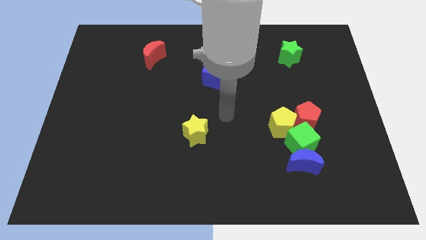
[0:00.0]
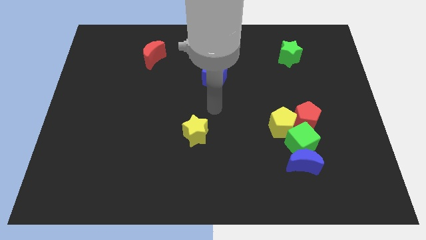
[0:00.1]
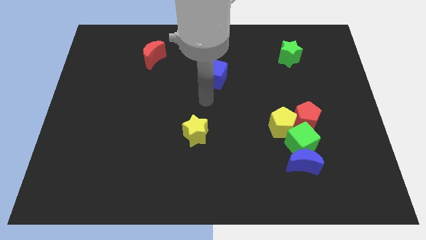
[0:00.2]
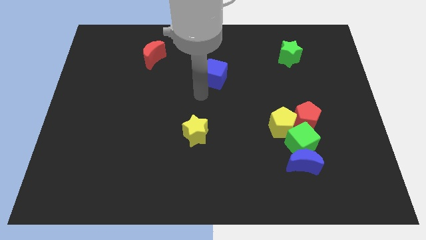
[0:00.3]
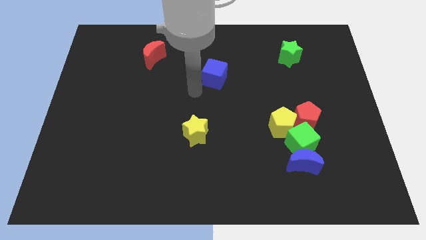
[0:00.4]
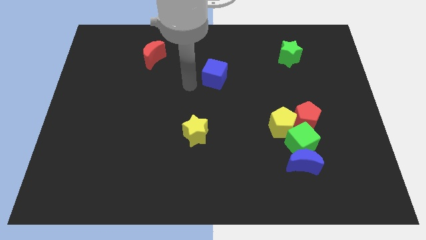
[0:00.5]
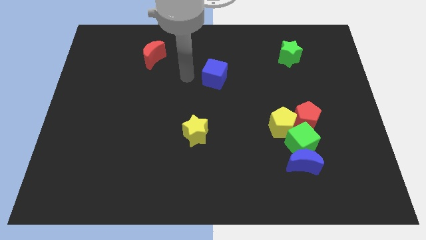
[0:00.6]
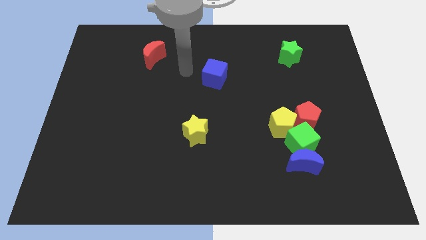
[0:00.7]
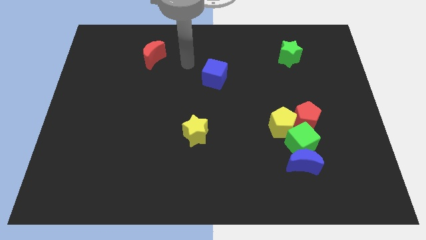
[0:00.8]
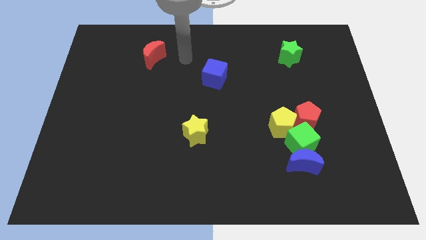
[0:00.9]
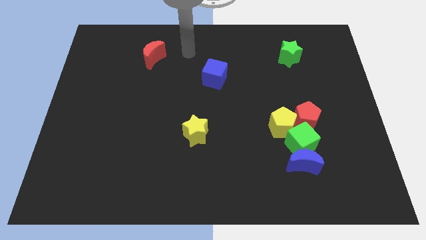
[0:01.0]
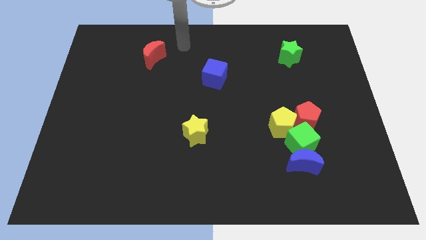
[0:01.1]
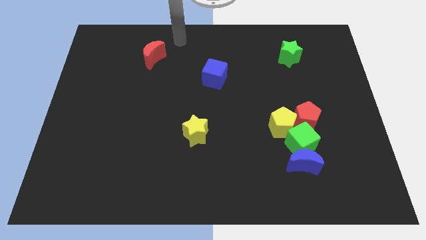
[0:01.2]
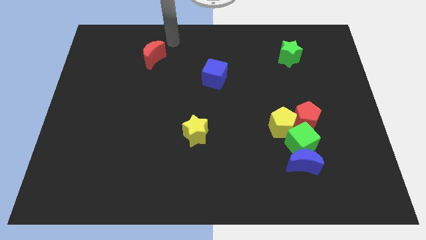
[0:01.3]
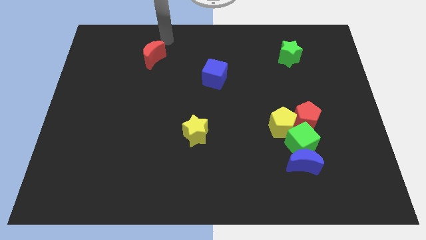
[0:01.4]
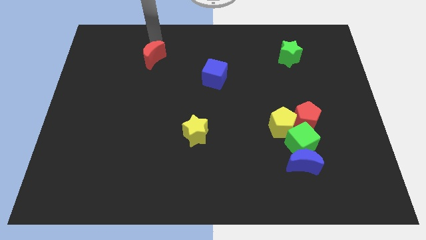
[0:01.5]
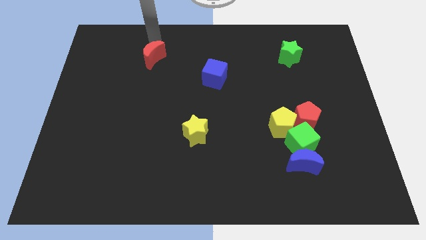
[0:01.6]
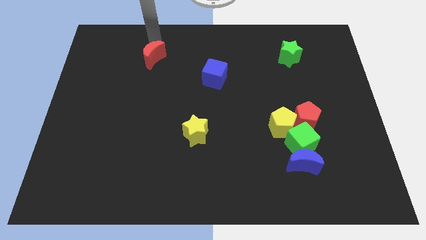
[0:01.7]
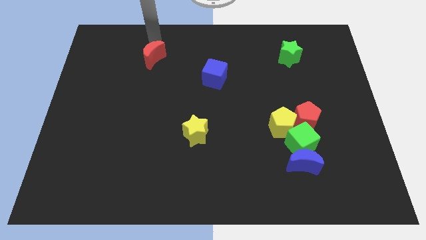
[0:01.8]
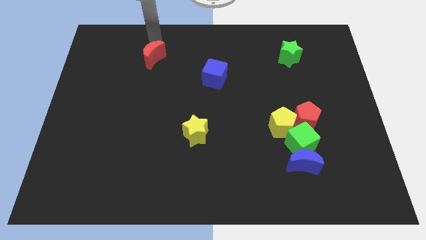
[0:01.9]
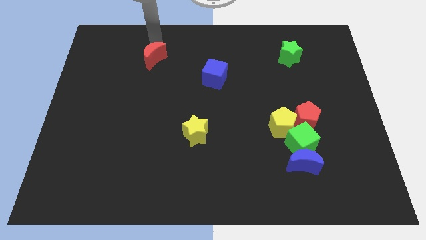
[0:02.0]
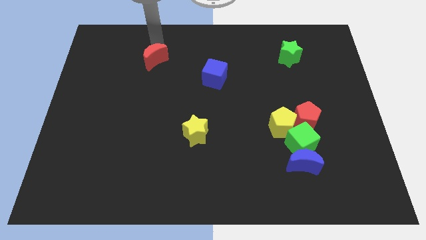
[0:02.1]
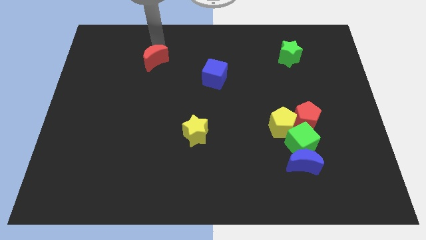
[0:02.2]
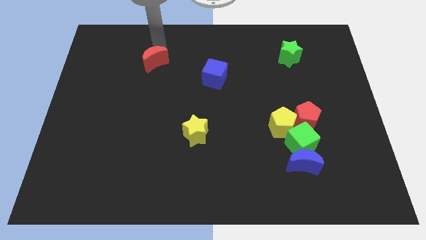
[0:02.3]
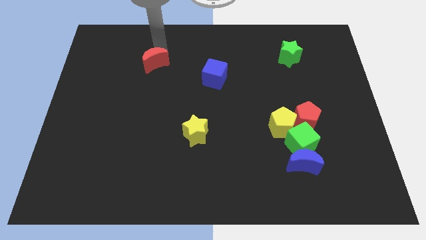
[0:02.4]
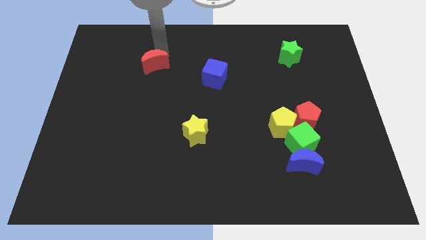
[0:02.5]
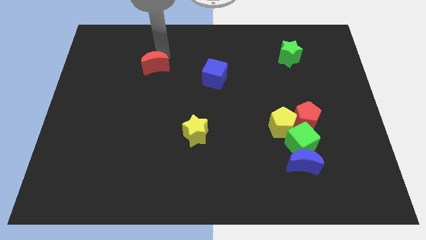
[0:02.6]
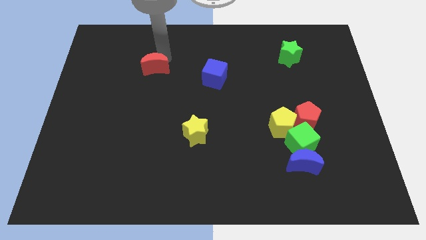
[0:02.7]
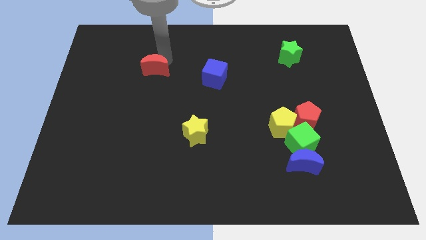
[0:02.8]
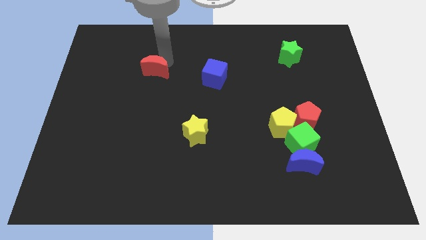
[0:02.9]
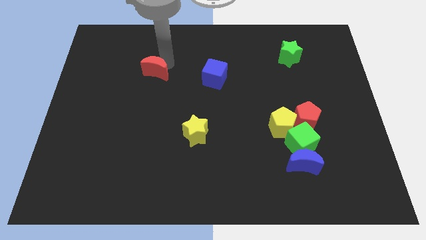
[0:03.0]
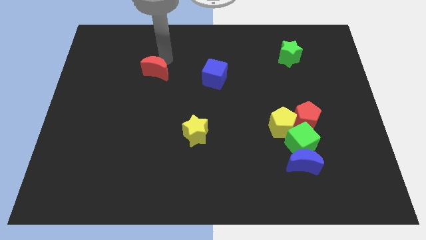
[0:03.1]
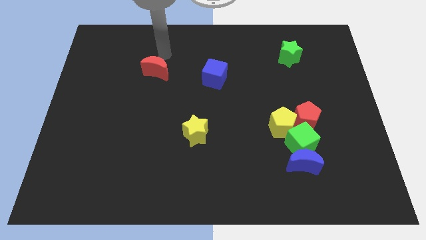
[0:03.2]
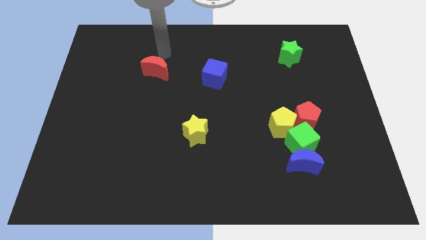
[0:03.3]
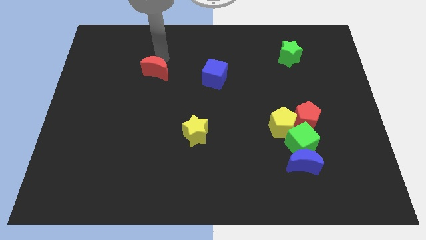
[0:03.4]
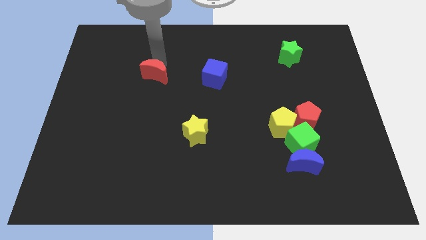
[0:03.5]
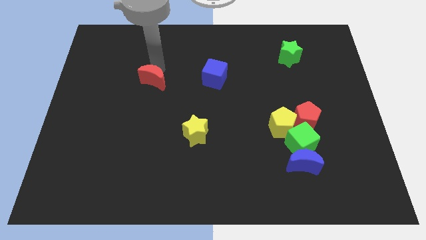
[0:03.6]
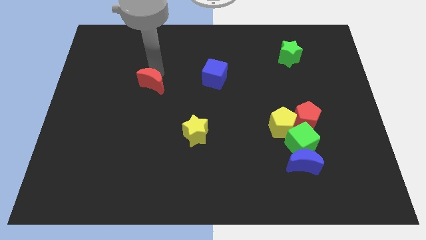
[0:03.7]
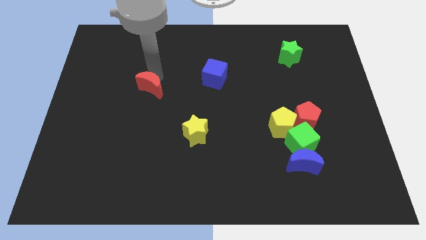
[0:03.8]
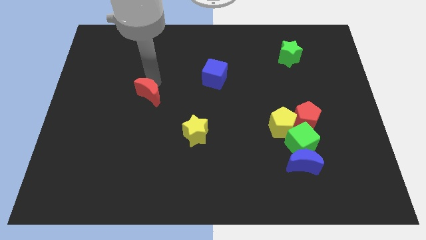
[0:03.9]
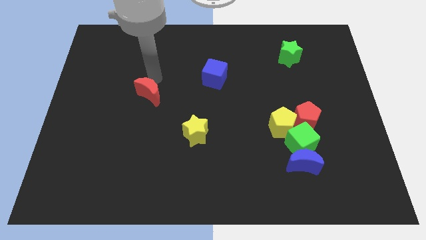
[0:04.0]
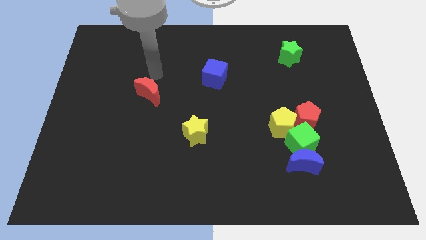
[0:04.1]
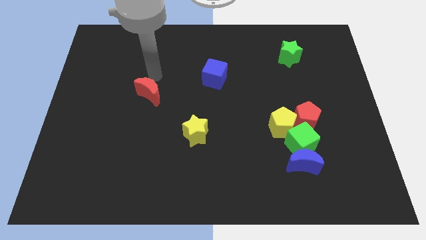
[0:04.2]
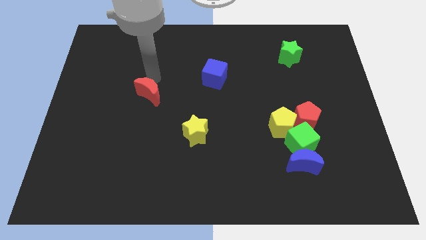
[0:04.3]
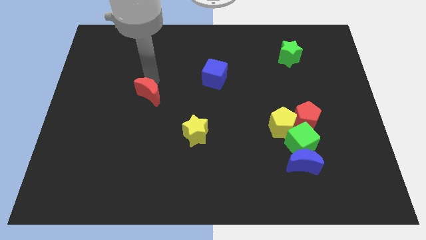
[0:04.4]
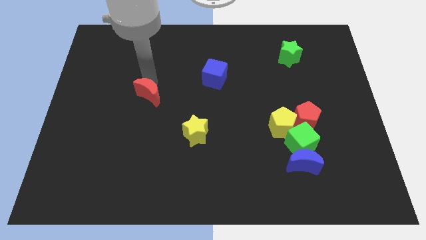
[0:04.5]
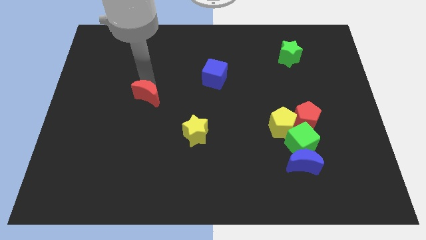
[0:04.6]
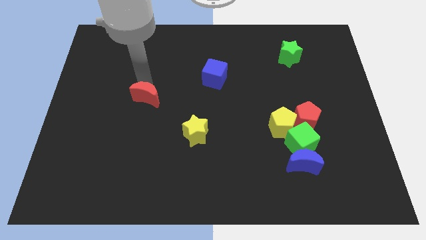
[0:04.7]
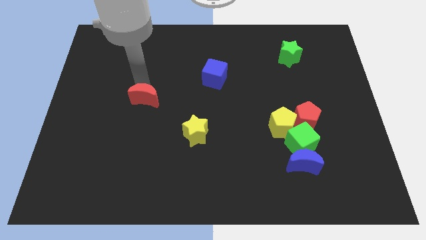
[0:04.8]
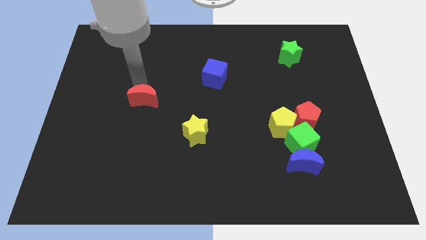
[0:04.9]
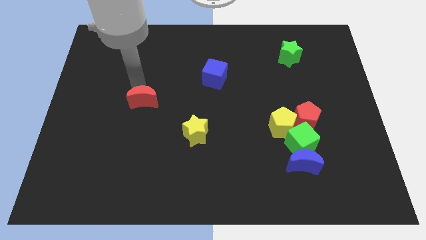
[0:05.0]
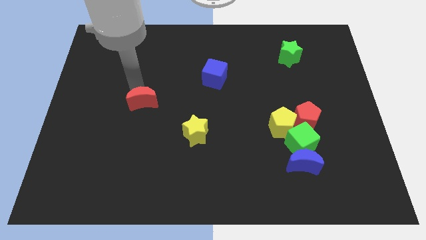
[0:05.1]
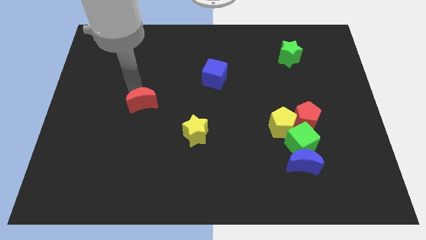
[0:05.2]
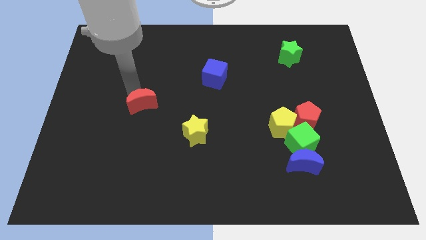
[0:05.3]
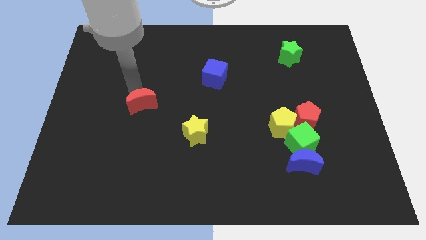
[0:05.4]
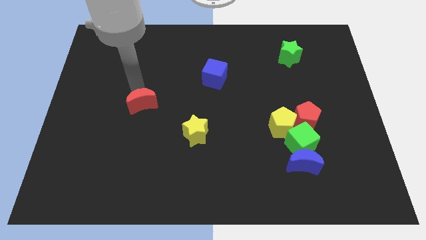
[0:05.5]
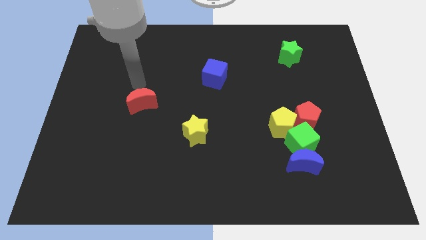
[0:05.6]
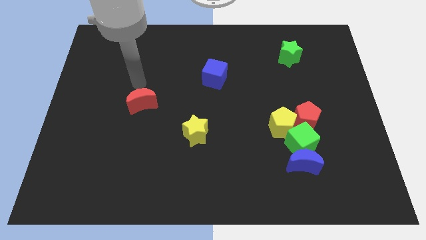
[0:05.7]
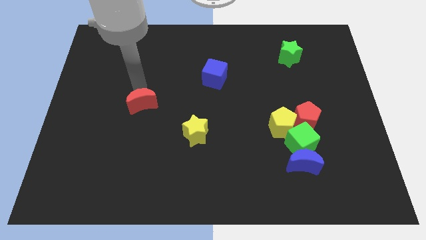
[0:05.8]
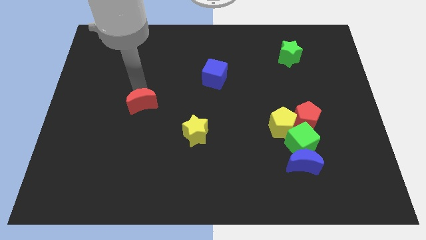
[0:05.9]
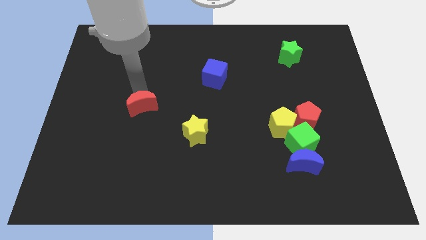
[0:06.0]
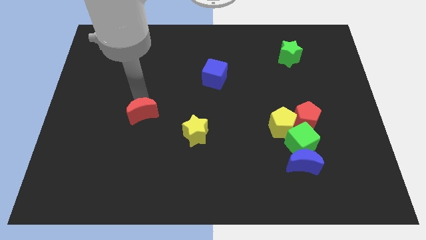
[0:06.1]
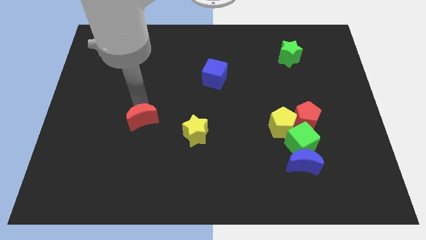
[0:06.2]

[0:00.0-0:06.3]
move the red moon left of the yellow star
